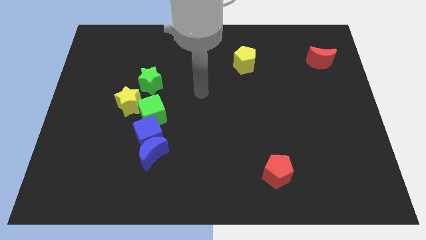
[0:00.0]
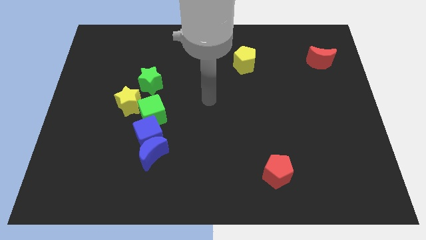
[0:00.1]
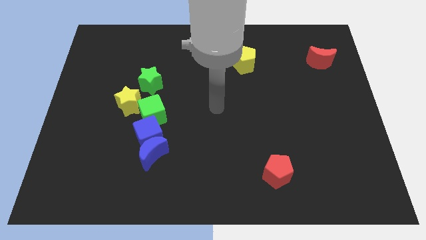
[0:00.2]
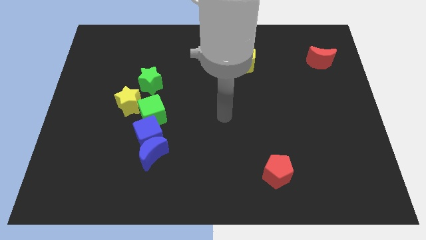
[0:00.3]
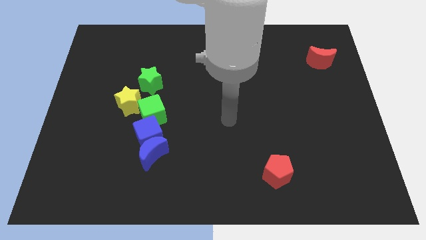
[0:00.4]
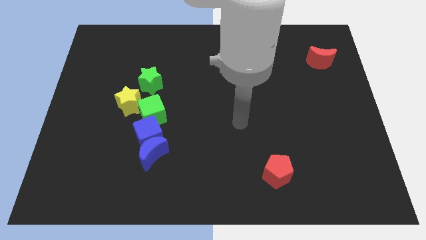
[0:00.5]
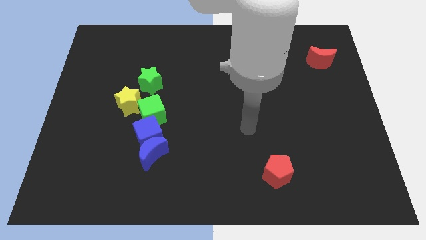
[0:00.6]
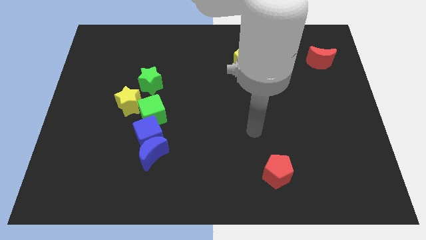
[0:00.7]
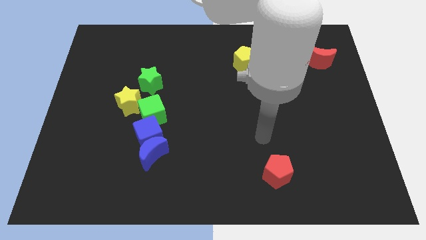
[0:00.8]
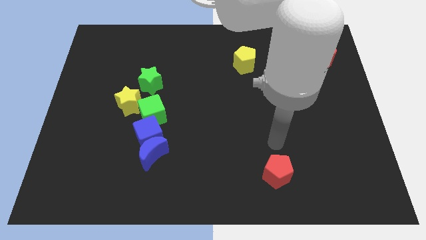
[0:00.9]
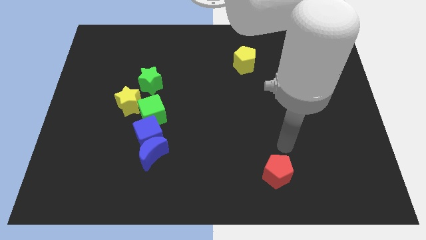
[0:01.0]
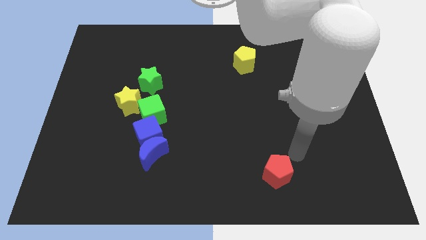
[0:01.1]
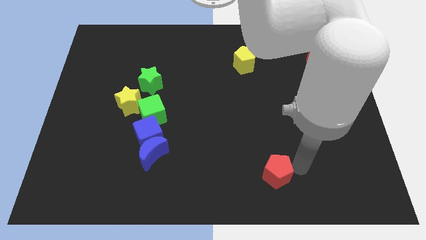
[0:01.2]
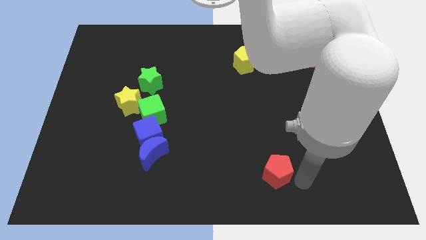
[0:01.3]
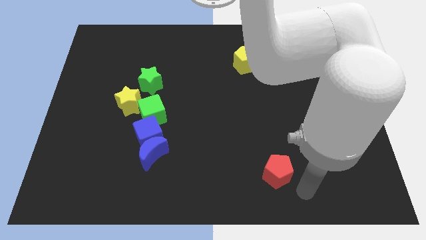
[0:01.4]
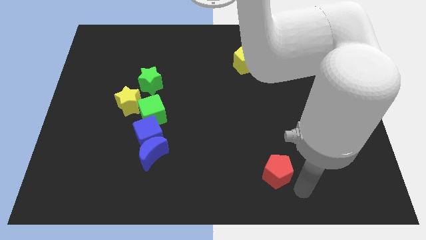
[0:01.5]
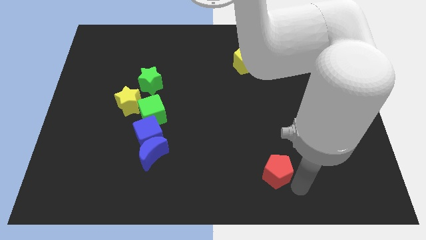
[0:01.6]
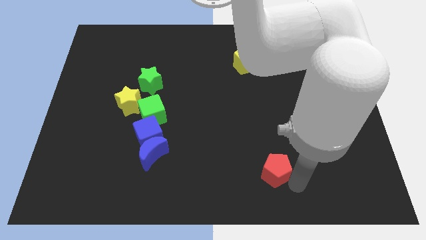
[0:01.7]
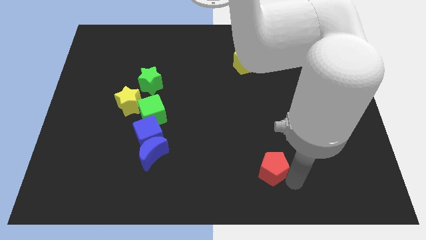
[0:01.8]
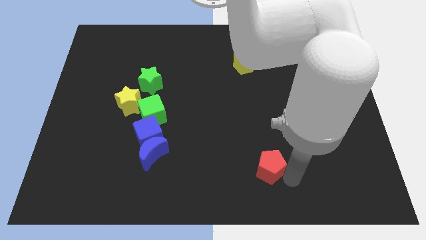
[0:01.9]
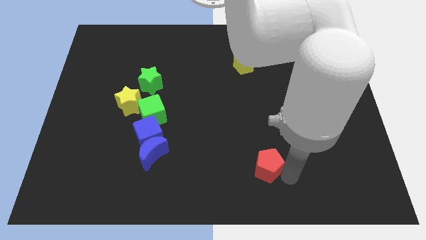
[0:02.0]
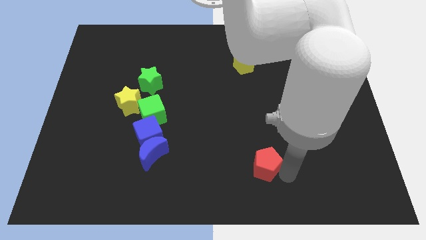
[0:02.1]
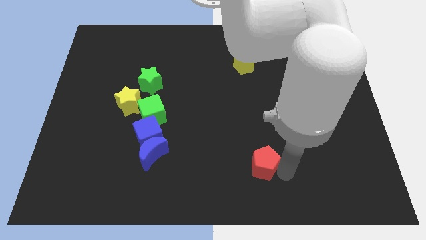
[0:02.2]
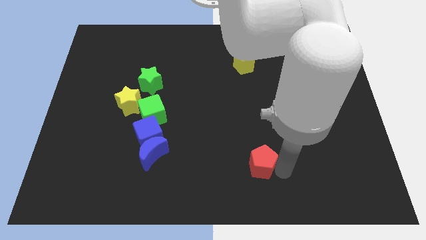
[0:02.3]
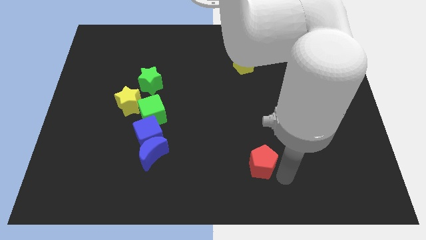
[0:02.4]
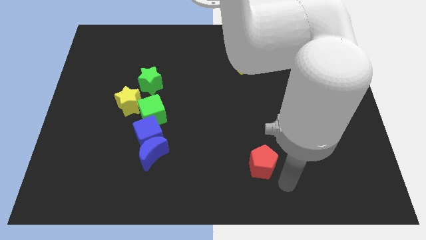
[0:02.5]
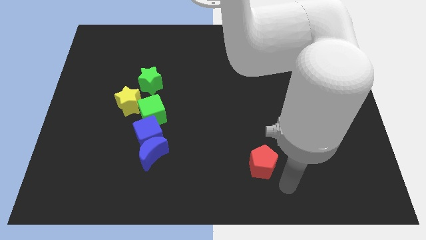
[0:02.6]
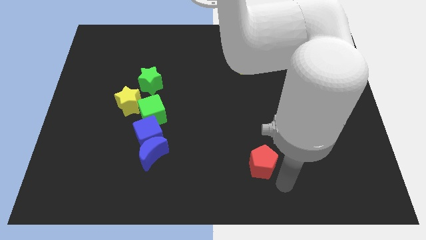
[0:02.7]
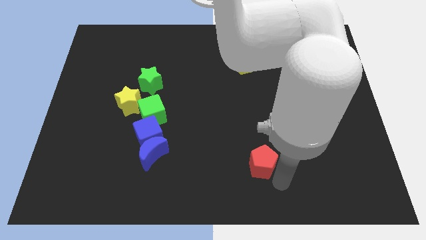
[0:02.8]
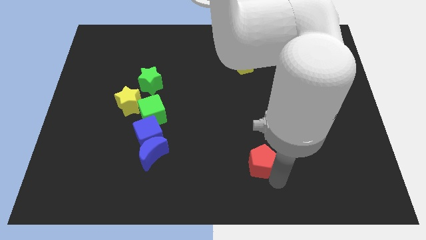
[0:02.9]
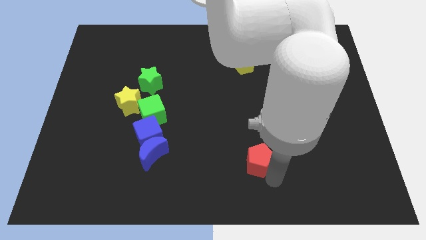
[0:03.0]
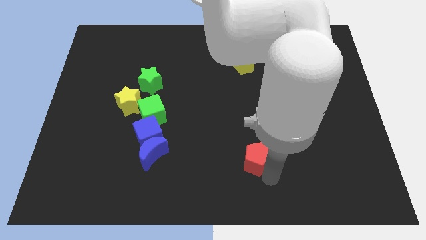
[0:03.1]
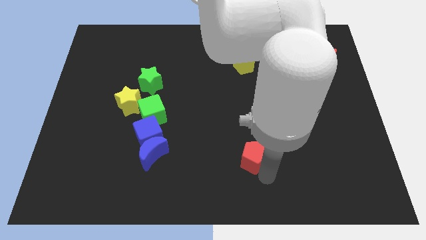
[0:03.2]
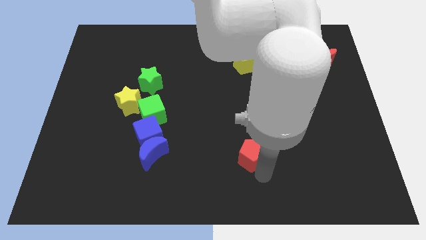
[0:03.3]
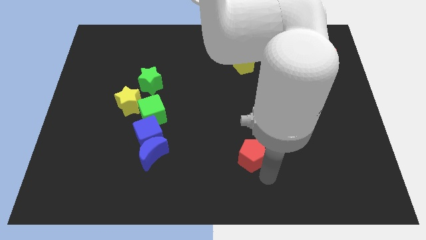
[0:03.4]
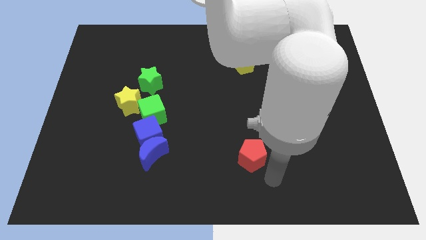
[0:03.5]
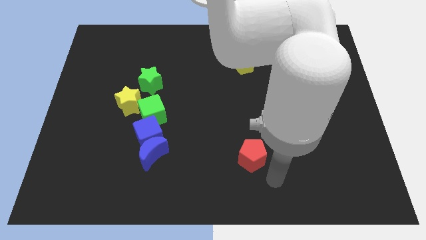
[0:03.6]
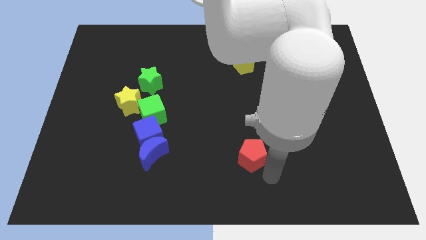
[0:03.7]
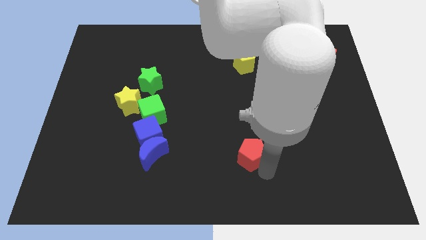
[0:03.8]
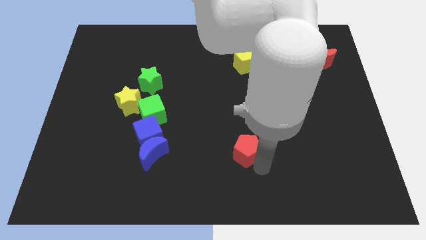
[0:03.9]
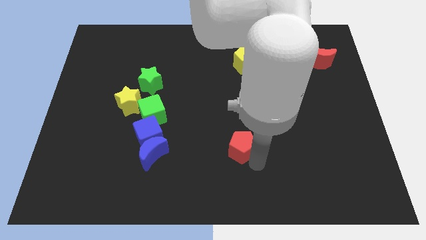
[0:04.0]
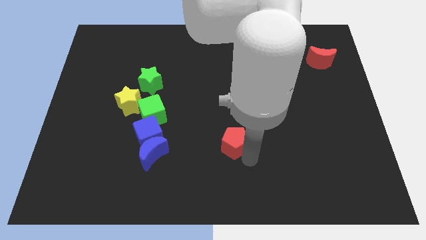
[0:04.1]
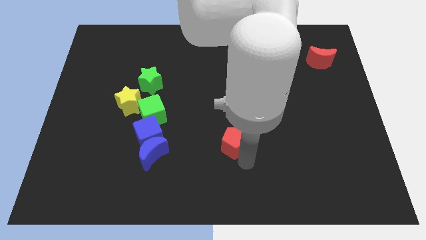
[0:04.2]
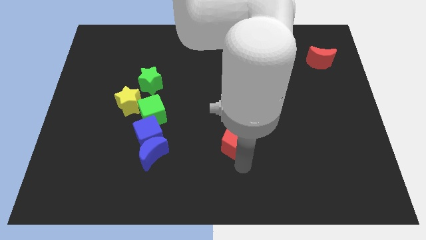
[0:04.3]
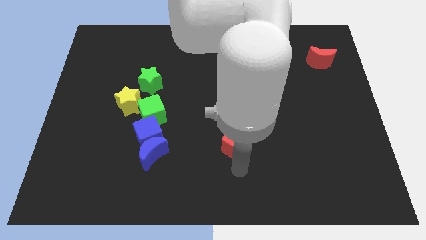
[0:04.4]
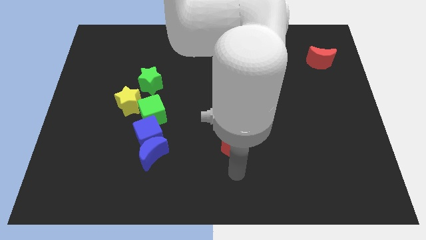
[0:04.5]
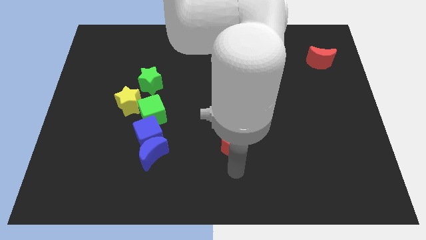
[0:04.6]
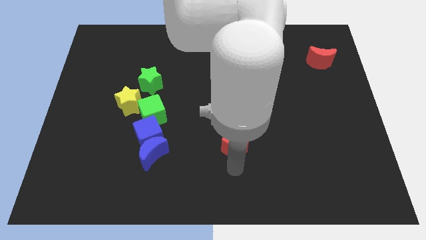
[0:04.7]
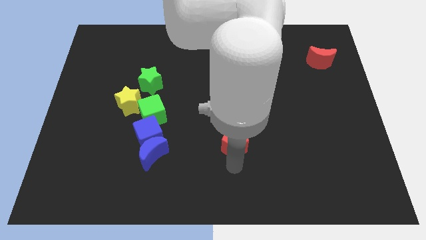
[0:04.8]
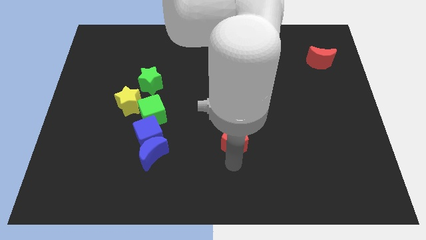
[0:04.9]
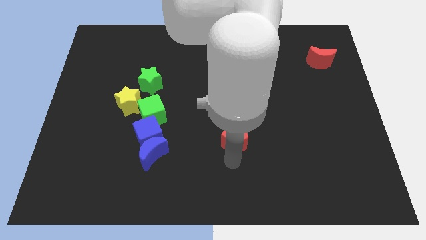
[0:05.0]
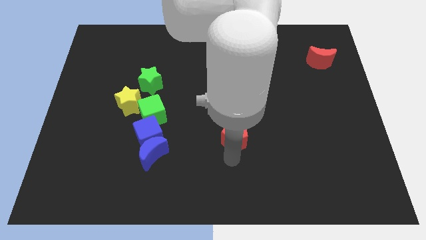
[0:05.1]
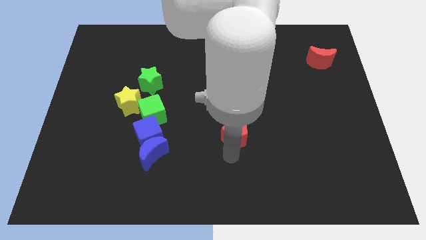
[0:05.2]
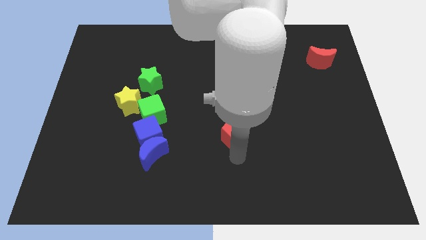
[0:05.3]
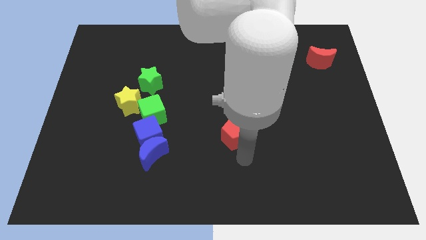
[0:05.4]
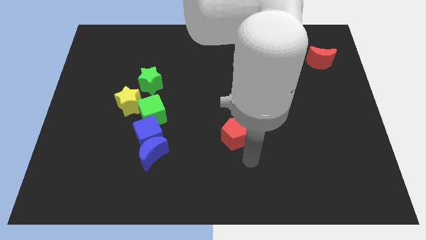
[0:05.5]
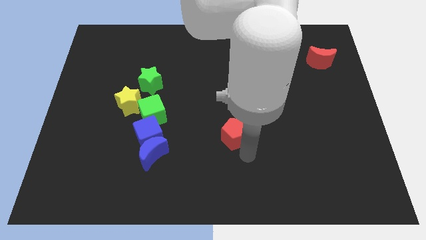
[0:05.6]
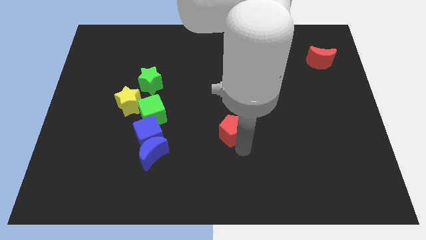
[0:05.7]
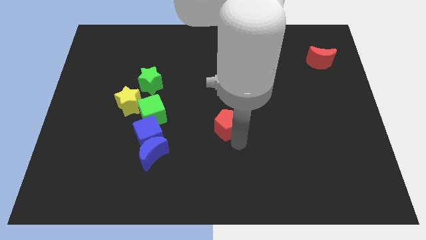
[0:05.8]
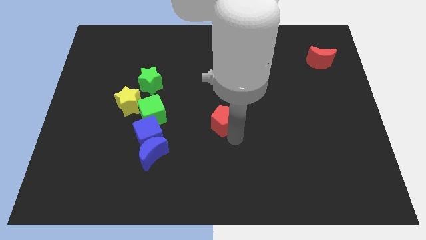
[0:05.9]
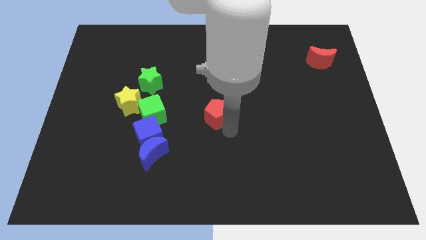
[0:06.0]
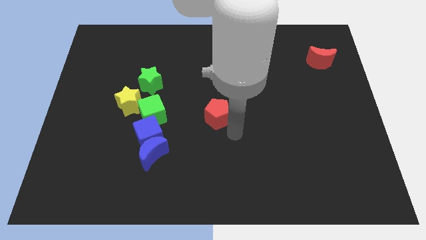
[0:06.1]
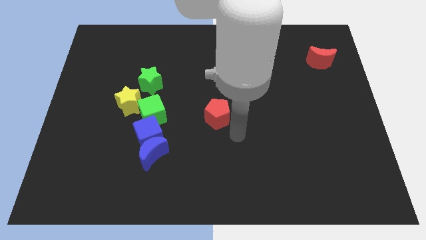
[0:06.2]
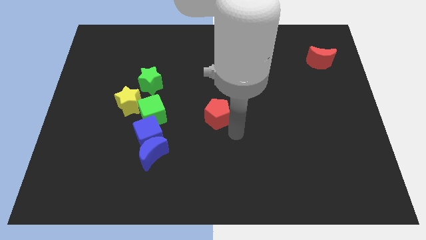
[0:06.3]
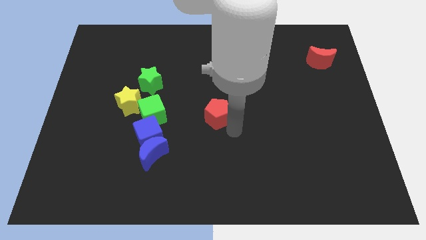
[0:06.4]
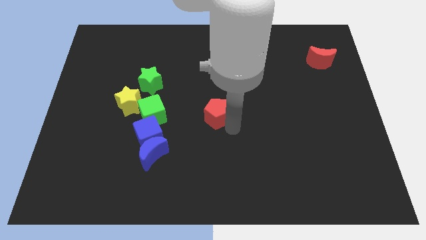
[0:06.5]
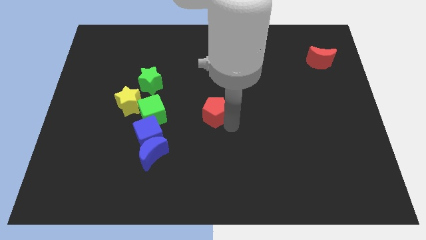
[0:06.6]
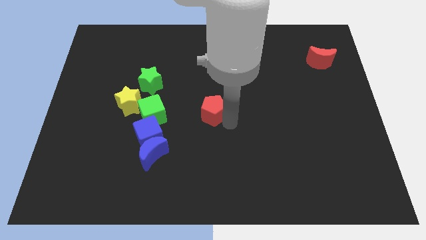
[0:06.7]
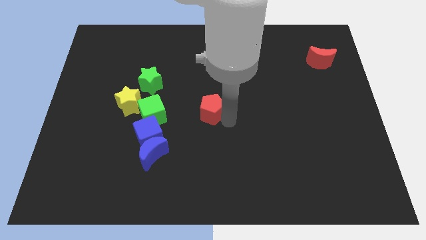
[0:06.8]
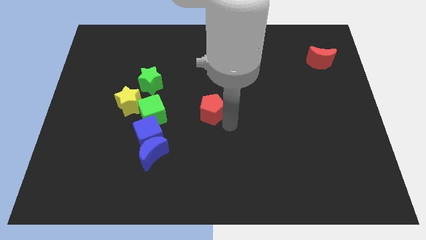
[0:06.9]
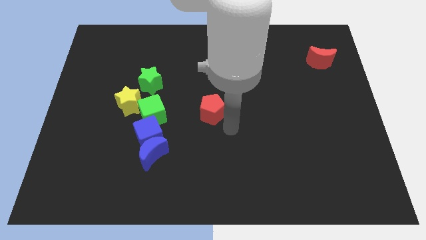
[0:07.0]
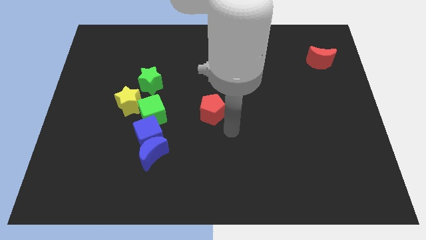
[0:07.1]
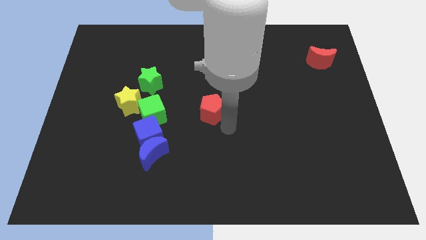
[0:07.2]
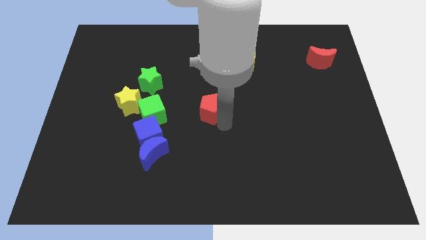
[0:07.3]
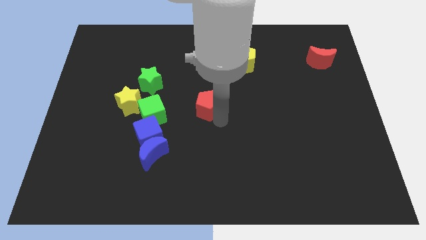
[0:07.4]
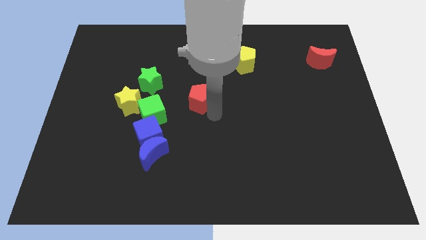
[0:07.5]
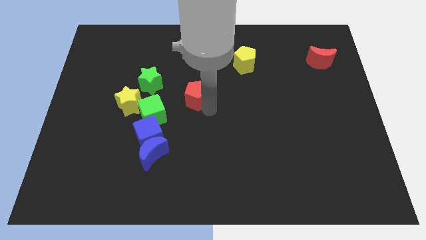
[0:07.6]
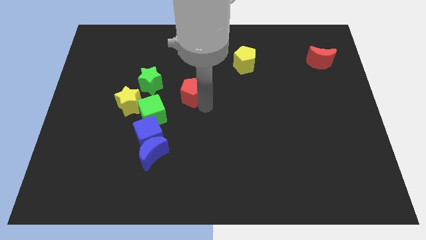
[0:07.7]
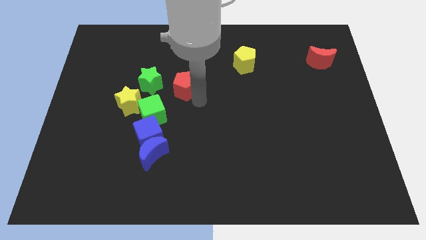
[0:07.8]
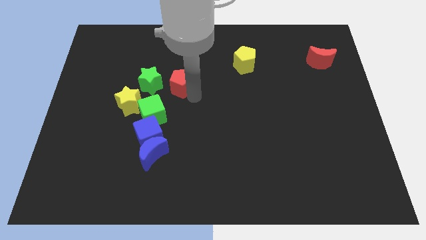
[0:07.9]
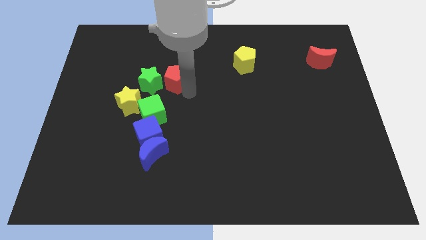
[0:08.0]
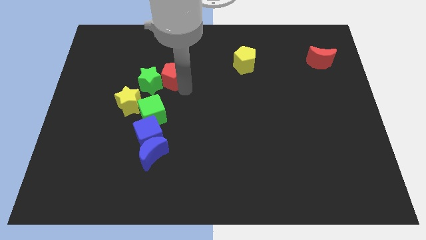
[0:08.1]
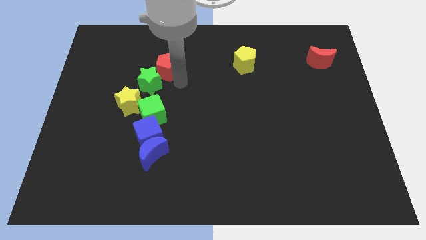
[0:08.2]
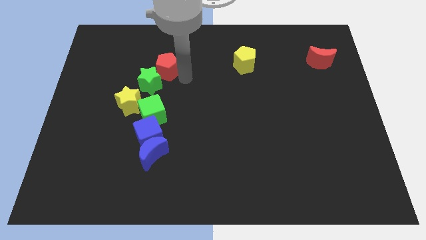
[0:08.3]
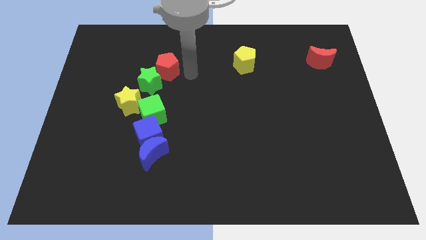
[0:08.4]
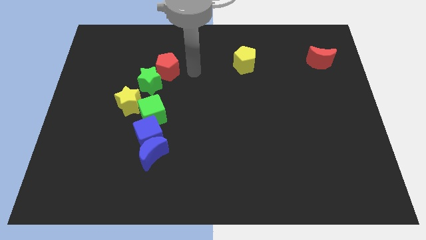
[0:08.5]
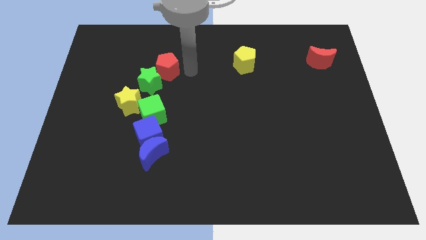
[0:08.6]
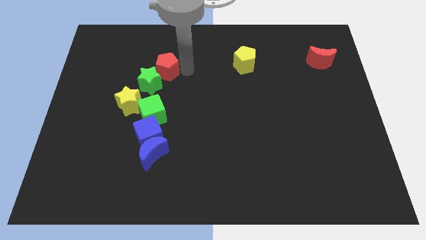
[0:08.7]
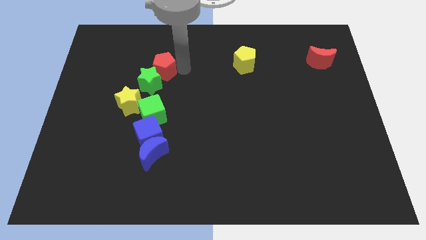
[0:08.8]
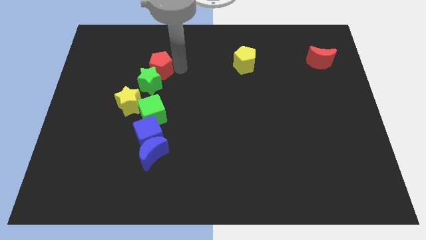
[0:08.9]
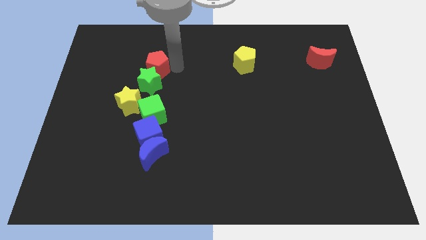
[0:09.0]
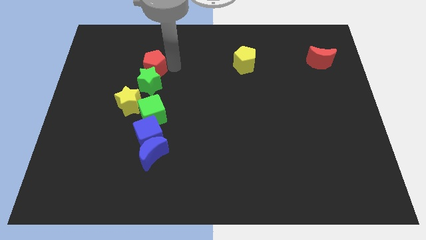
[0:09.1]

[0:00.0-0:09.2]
slide the red pentagon to the top left of the green star
